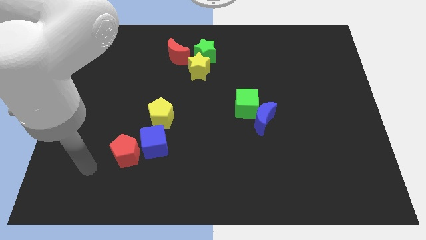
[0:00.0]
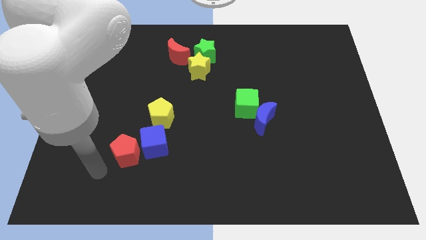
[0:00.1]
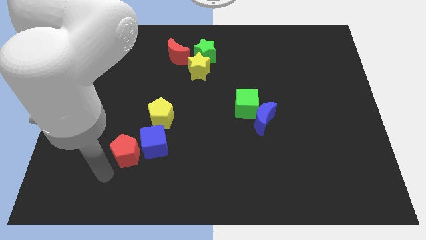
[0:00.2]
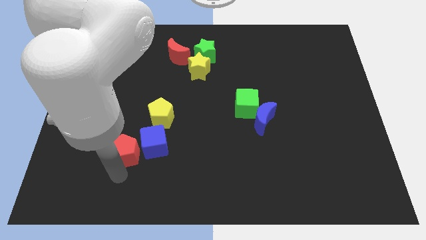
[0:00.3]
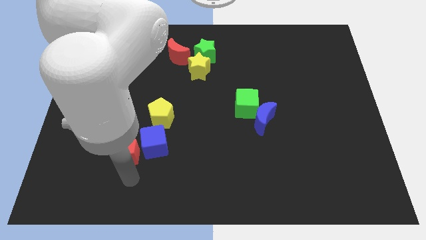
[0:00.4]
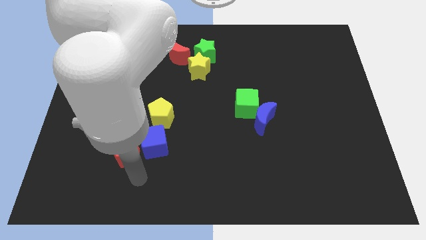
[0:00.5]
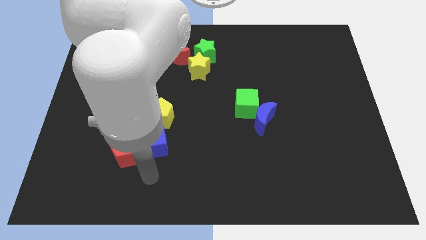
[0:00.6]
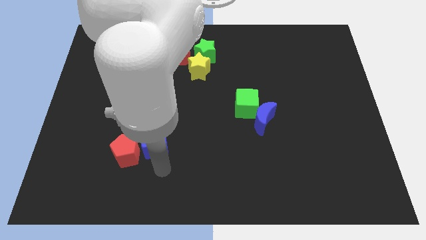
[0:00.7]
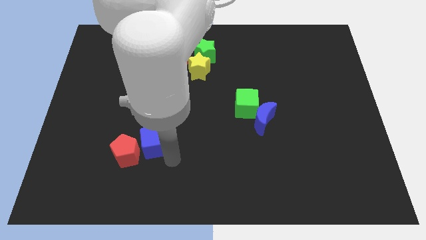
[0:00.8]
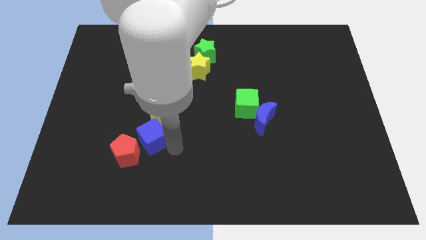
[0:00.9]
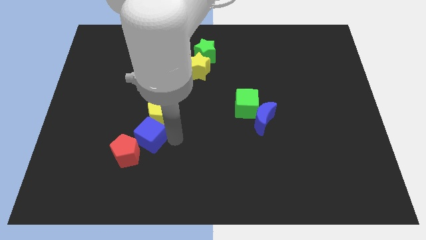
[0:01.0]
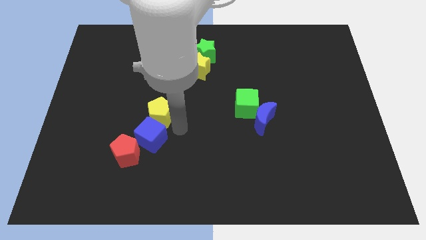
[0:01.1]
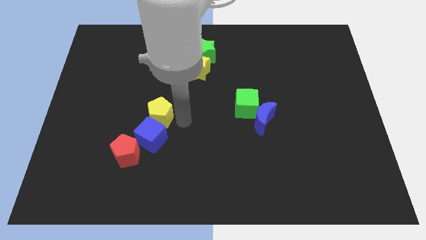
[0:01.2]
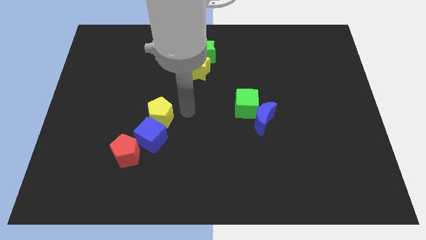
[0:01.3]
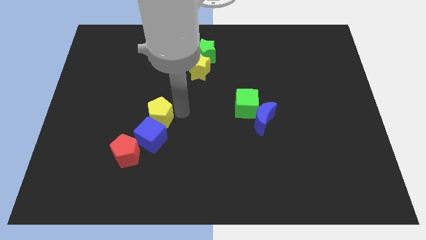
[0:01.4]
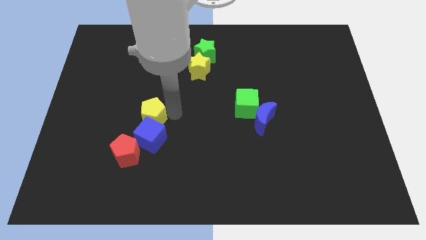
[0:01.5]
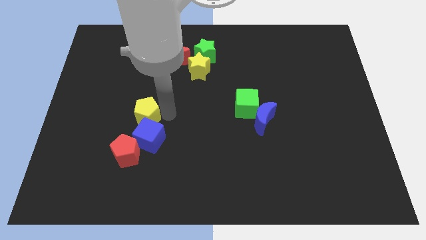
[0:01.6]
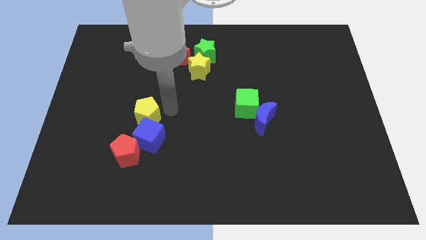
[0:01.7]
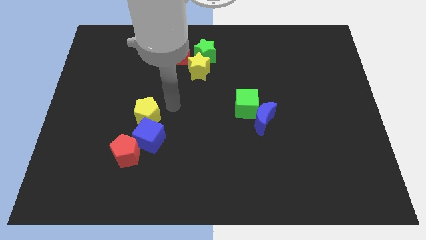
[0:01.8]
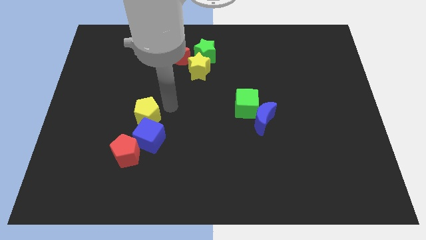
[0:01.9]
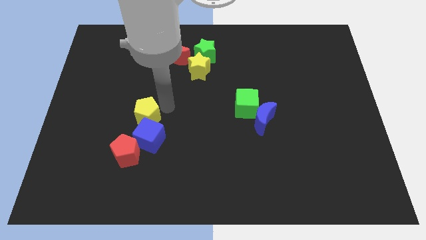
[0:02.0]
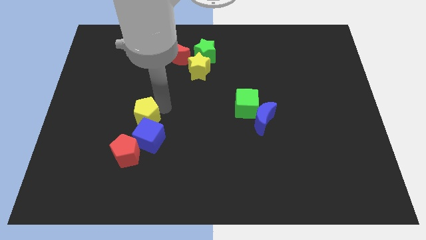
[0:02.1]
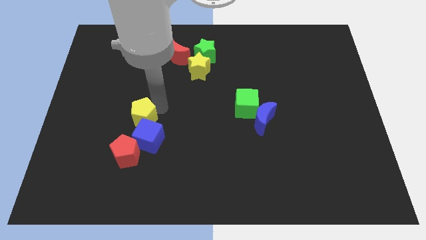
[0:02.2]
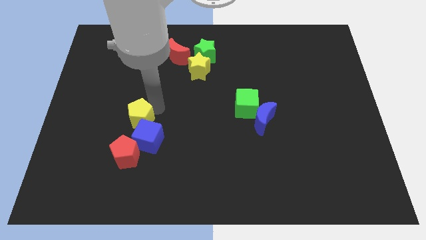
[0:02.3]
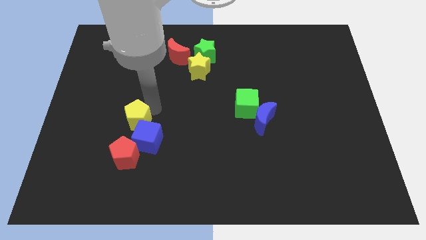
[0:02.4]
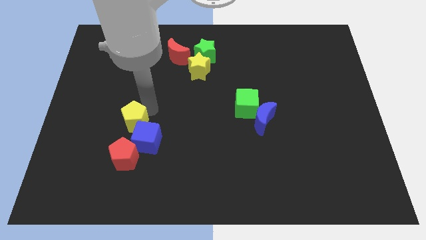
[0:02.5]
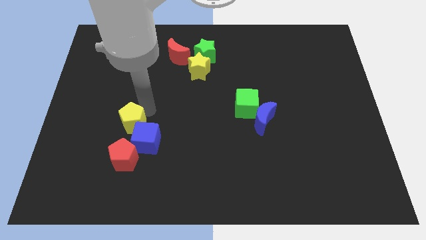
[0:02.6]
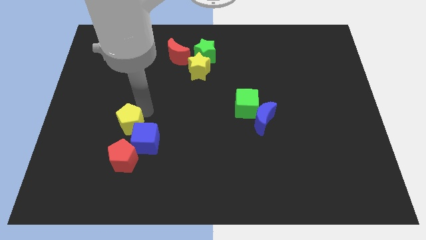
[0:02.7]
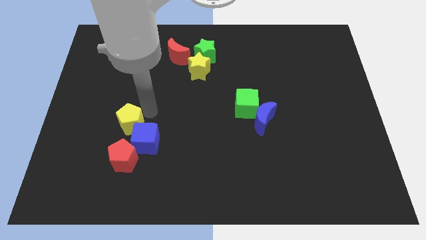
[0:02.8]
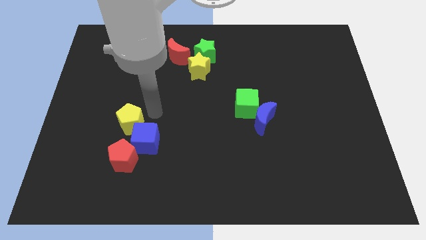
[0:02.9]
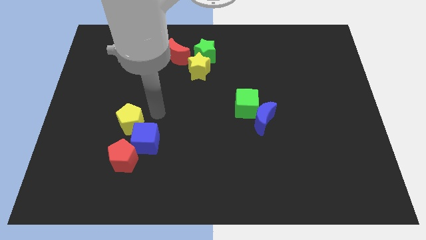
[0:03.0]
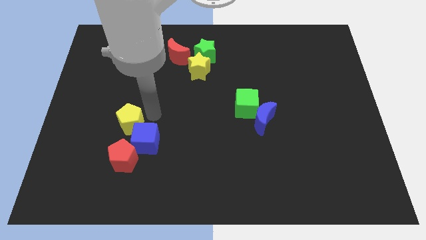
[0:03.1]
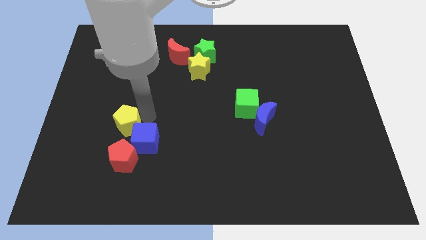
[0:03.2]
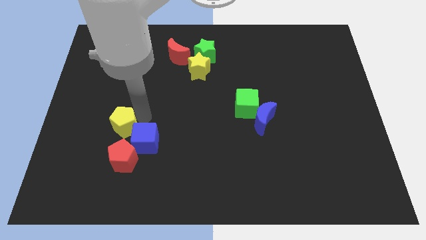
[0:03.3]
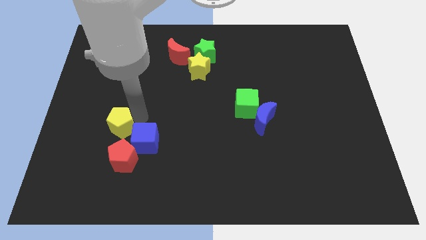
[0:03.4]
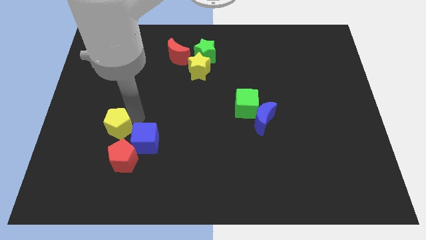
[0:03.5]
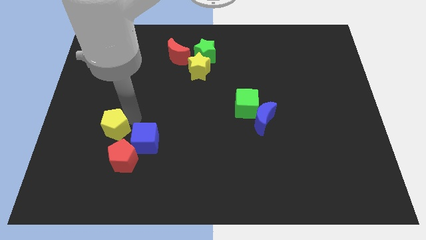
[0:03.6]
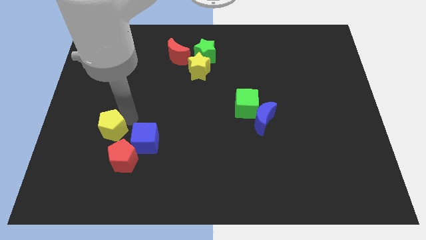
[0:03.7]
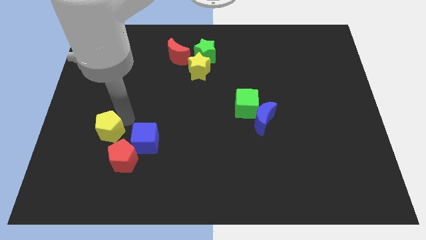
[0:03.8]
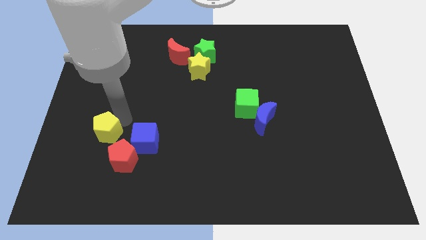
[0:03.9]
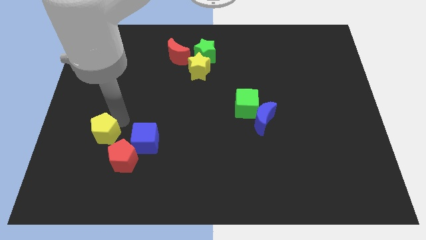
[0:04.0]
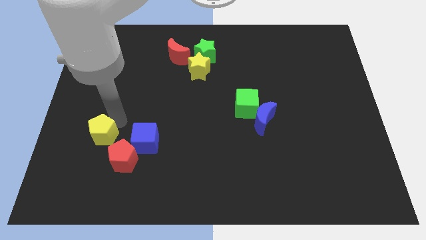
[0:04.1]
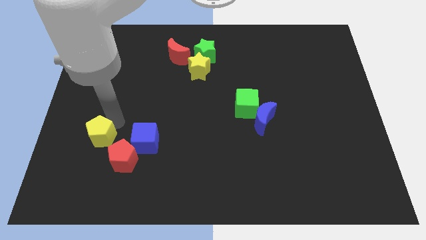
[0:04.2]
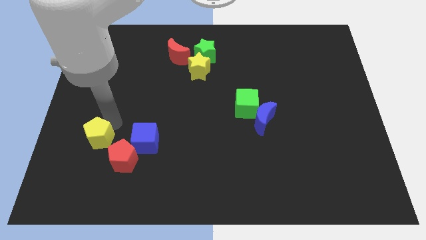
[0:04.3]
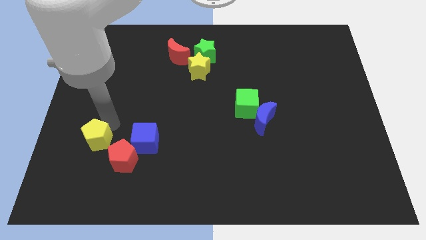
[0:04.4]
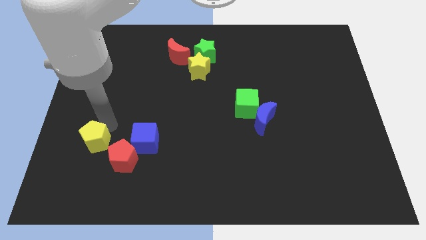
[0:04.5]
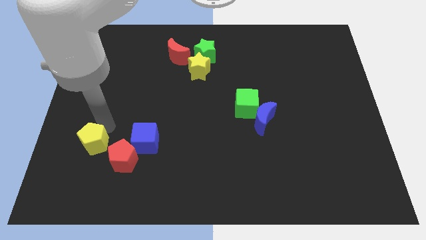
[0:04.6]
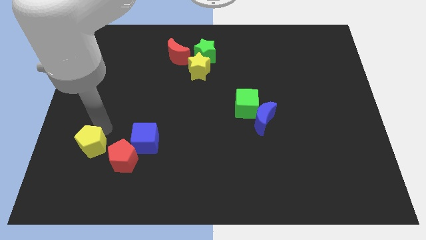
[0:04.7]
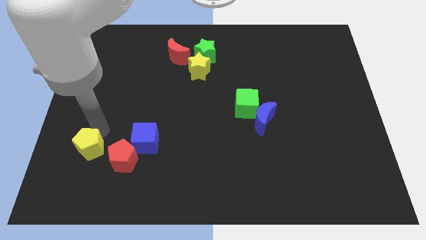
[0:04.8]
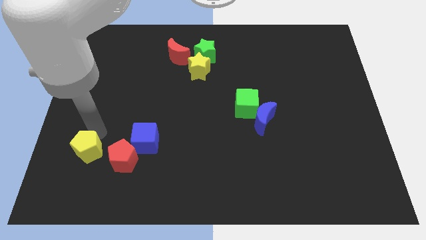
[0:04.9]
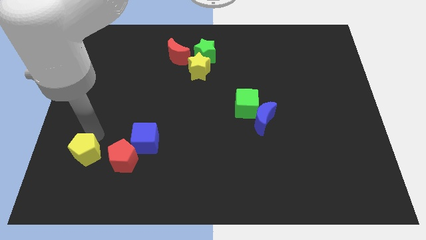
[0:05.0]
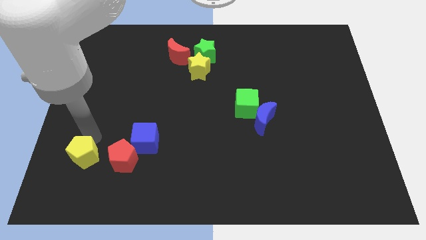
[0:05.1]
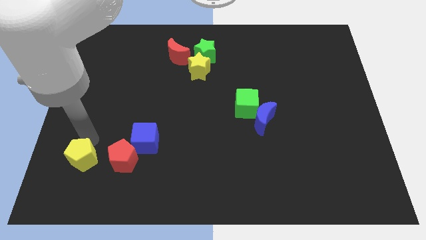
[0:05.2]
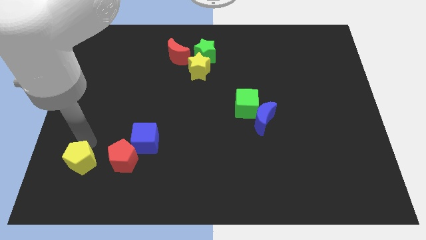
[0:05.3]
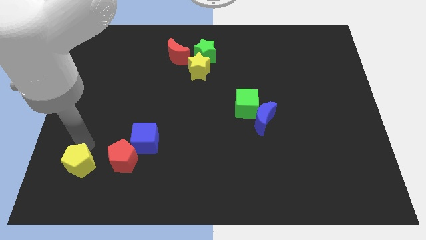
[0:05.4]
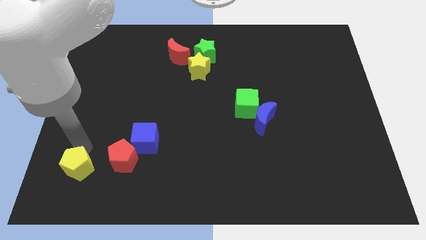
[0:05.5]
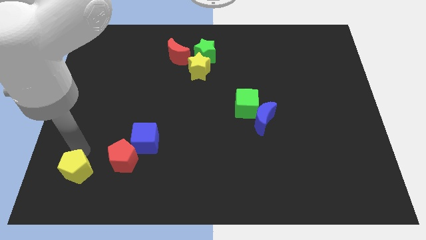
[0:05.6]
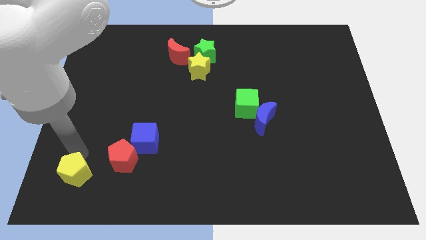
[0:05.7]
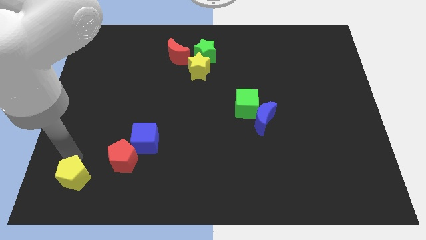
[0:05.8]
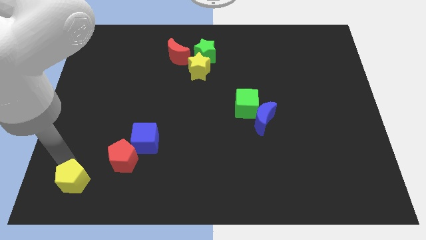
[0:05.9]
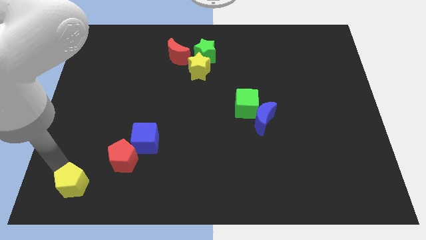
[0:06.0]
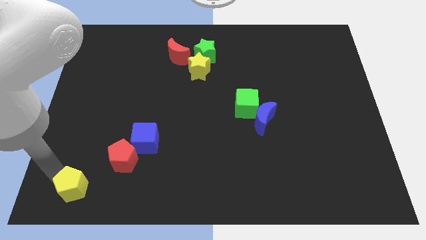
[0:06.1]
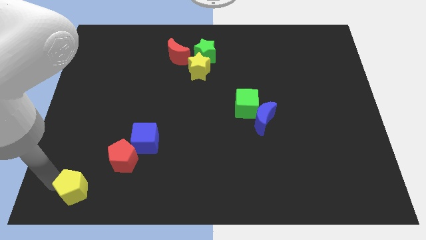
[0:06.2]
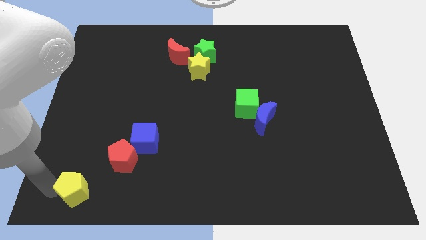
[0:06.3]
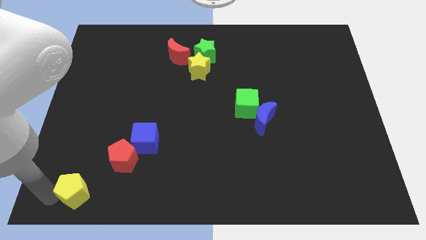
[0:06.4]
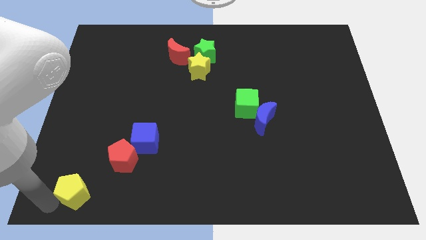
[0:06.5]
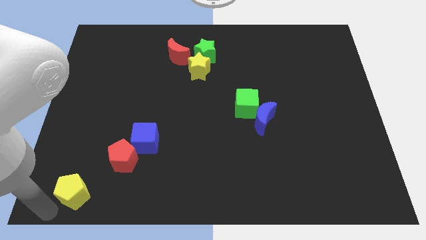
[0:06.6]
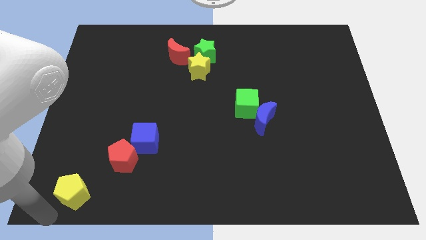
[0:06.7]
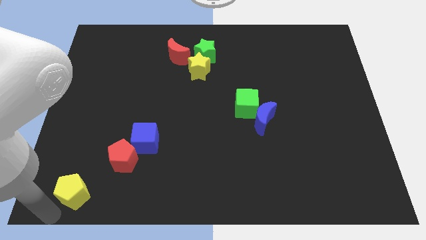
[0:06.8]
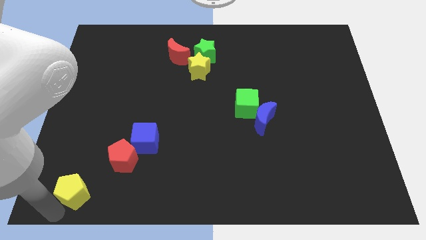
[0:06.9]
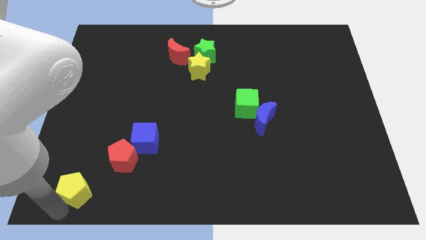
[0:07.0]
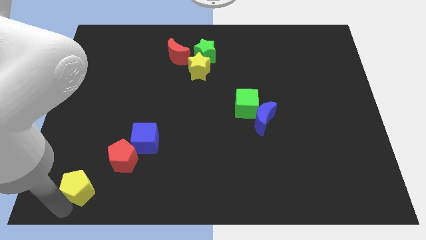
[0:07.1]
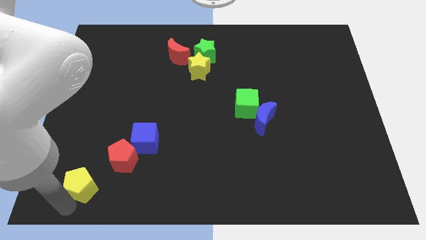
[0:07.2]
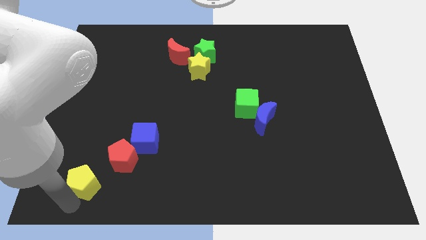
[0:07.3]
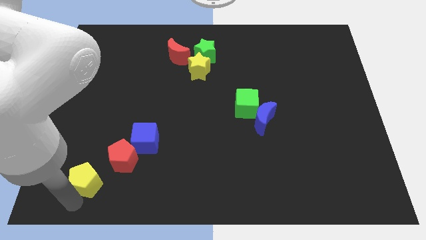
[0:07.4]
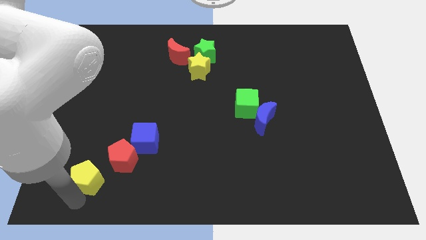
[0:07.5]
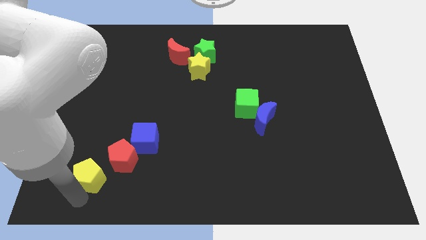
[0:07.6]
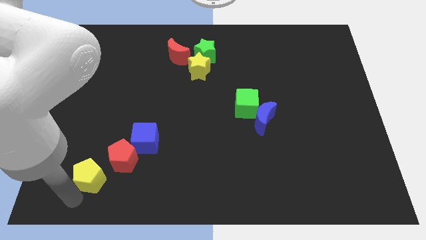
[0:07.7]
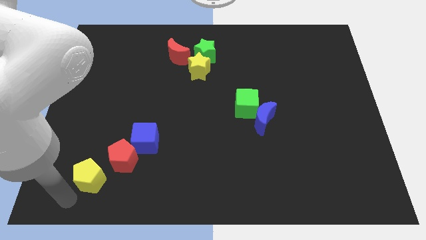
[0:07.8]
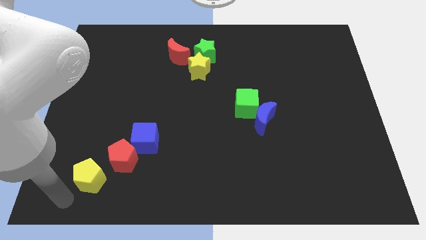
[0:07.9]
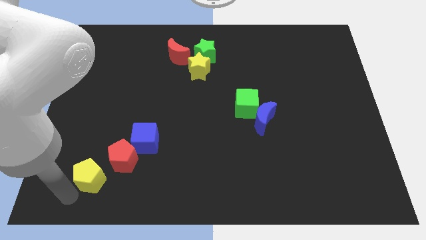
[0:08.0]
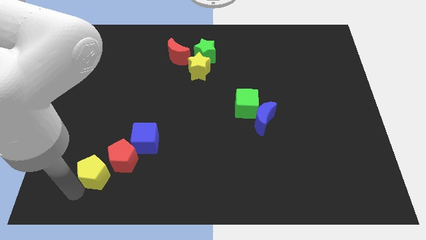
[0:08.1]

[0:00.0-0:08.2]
move the yellow pentagon to the bottom left of the blue cube
